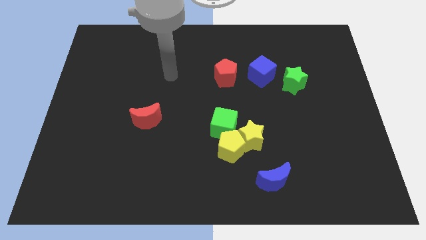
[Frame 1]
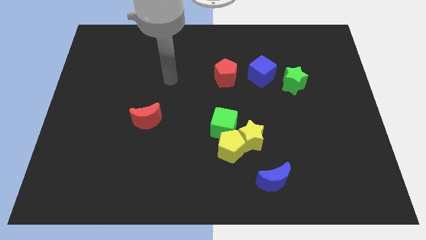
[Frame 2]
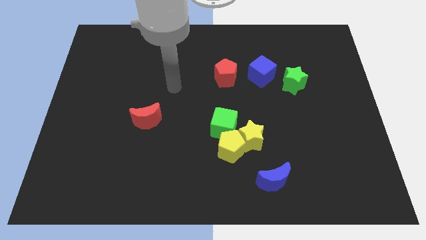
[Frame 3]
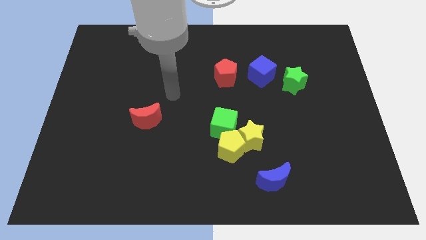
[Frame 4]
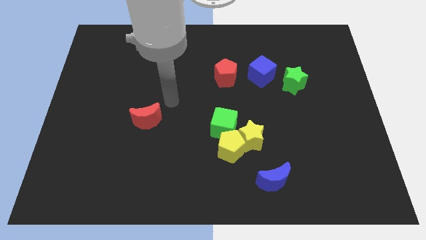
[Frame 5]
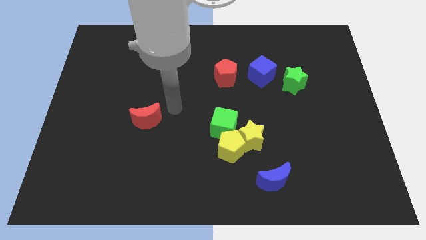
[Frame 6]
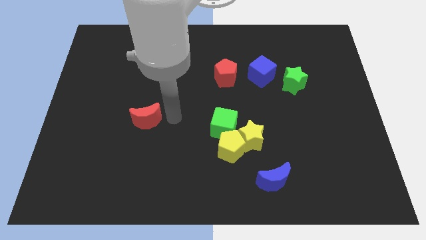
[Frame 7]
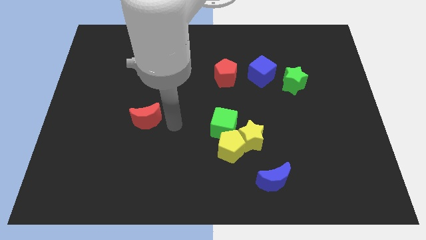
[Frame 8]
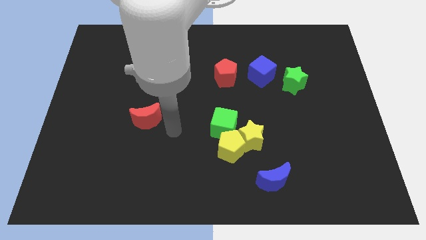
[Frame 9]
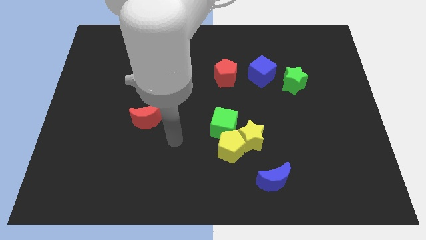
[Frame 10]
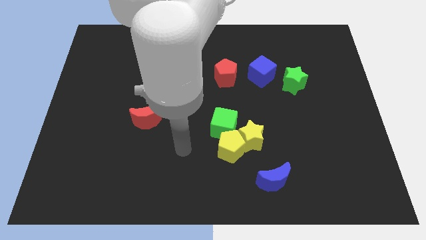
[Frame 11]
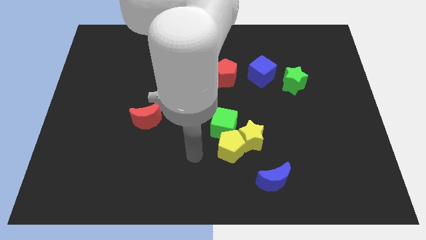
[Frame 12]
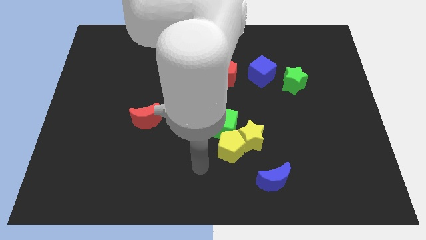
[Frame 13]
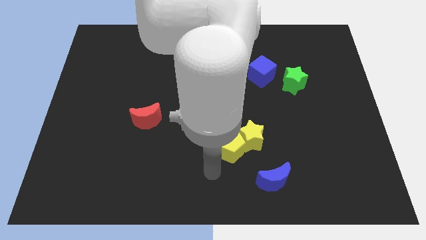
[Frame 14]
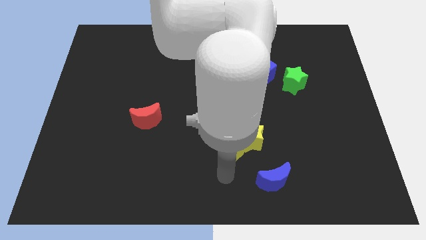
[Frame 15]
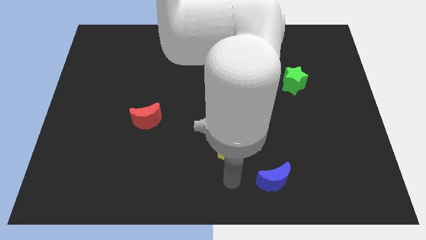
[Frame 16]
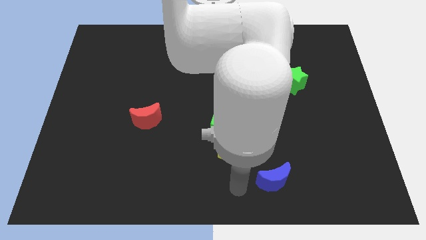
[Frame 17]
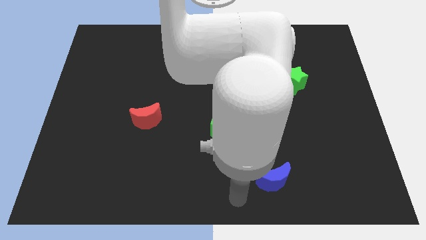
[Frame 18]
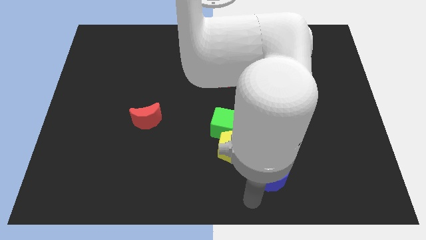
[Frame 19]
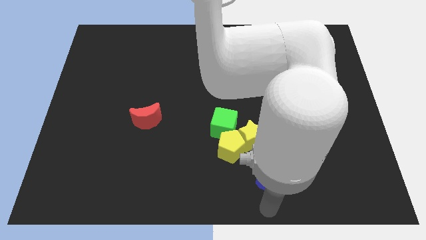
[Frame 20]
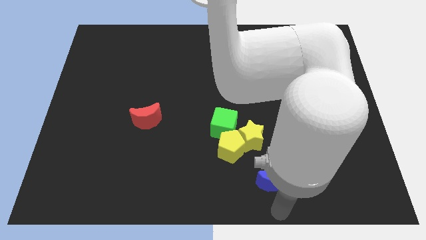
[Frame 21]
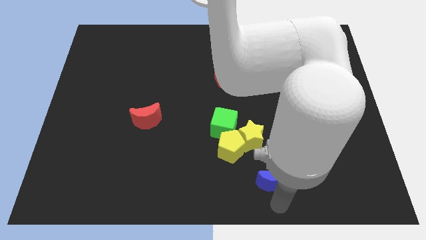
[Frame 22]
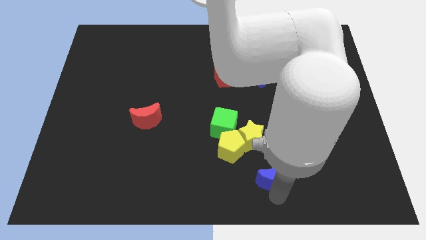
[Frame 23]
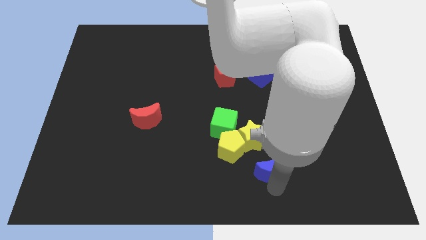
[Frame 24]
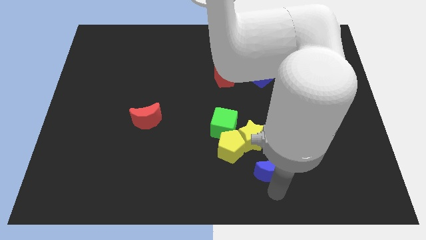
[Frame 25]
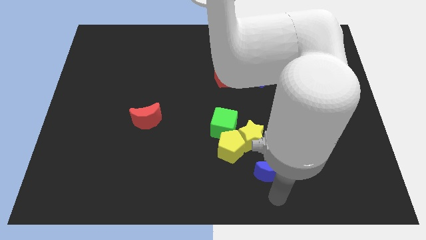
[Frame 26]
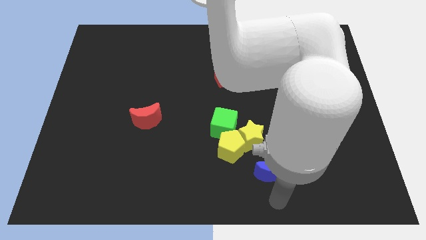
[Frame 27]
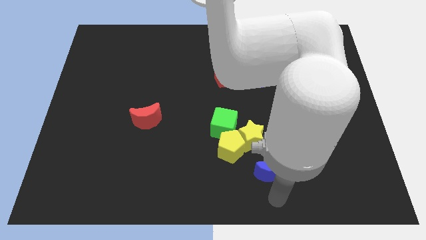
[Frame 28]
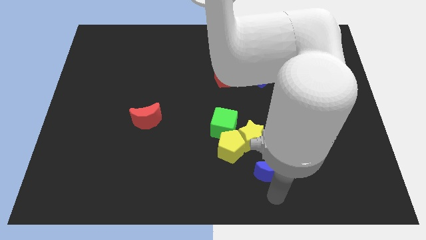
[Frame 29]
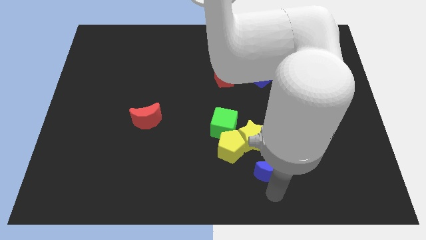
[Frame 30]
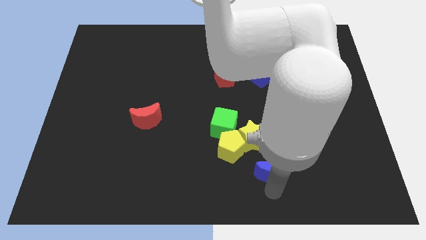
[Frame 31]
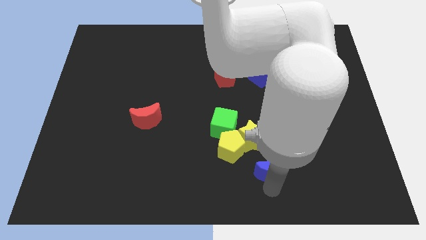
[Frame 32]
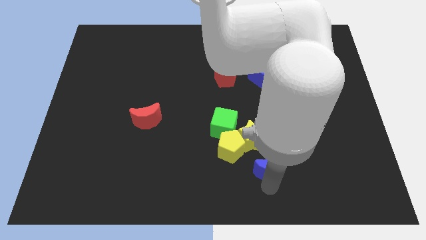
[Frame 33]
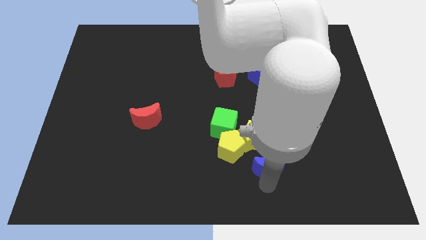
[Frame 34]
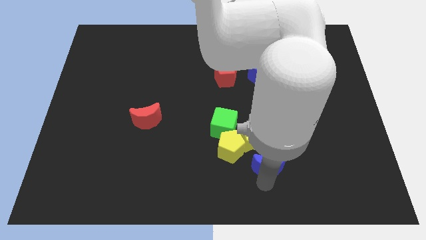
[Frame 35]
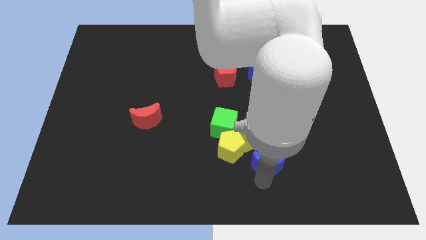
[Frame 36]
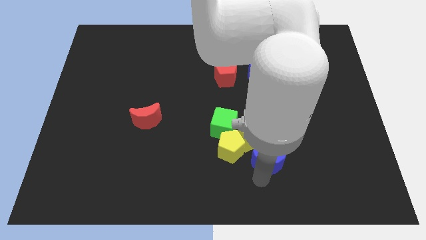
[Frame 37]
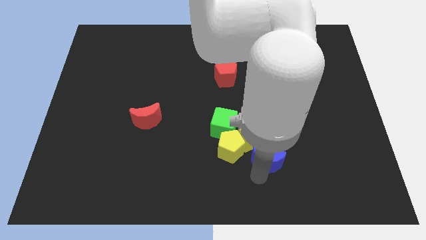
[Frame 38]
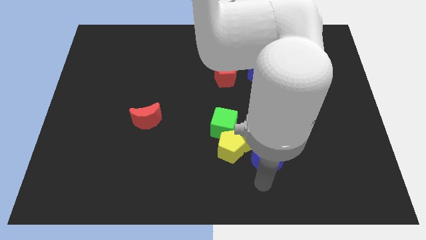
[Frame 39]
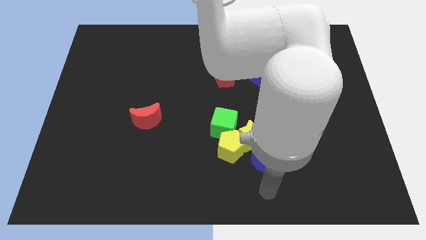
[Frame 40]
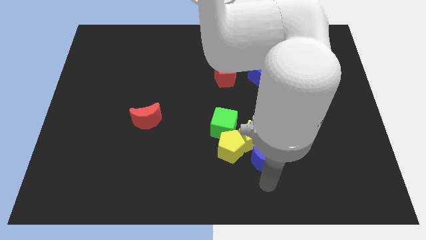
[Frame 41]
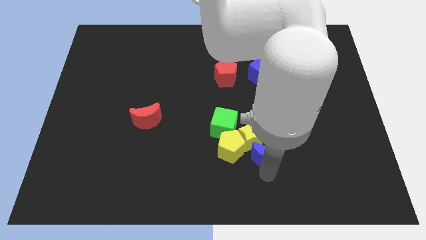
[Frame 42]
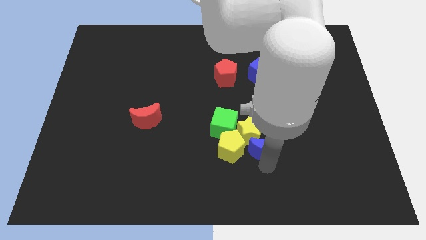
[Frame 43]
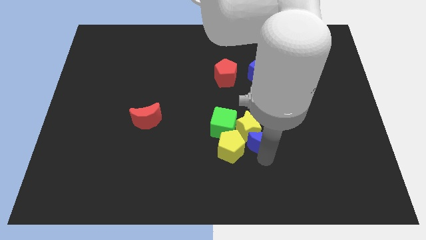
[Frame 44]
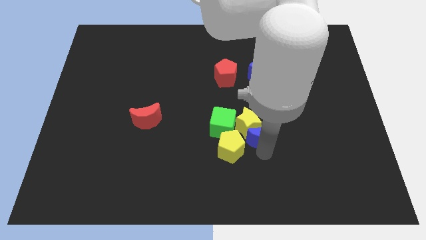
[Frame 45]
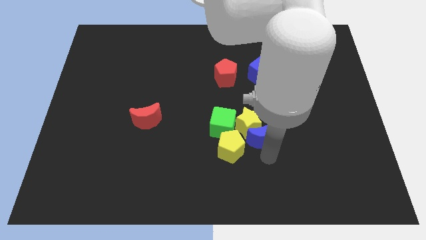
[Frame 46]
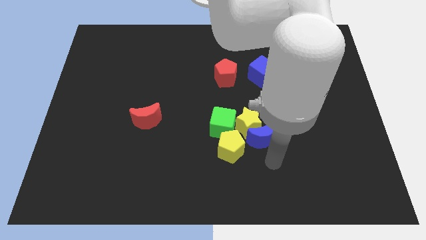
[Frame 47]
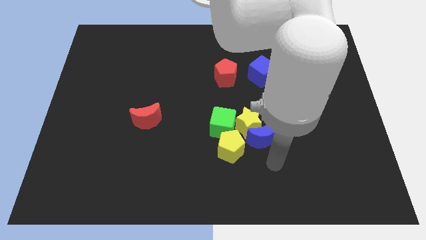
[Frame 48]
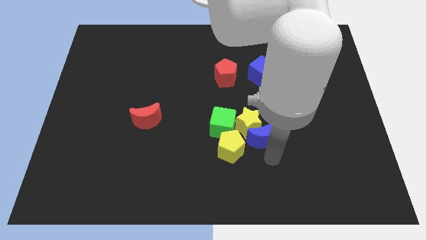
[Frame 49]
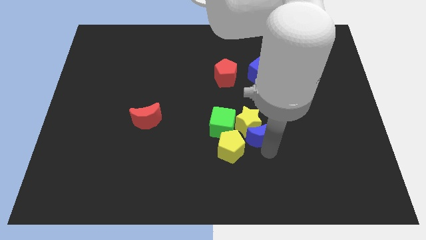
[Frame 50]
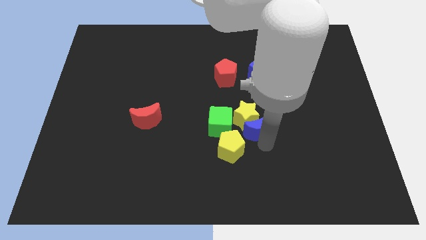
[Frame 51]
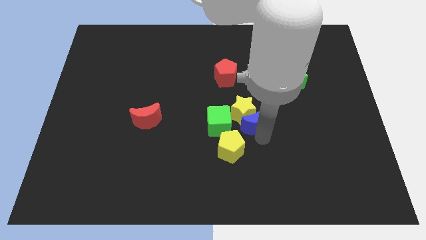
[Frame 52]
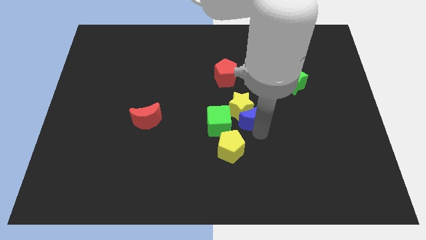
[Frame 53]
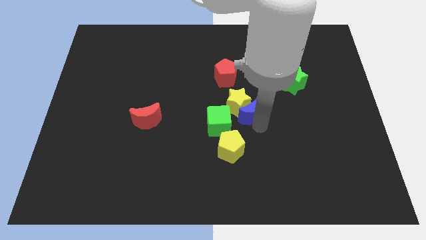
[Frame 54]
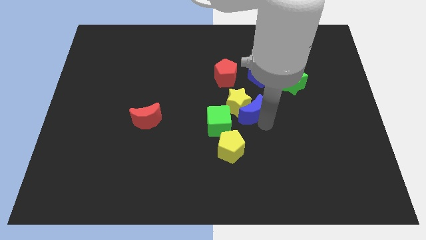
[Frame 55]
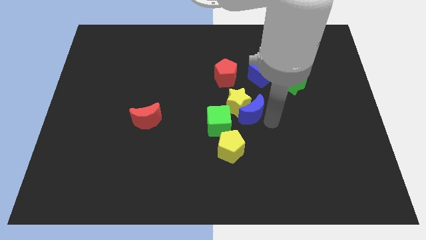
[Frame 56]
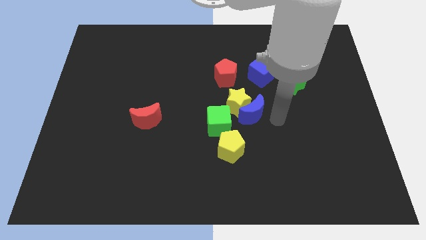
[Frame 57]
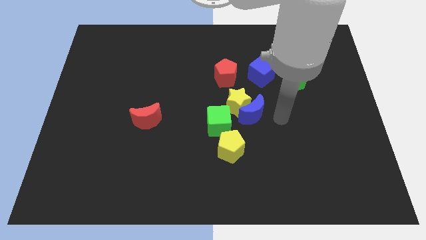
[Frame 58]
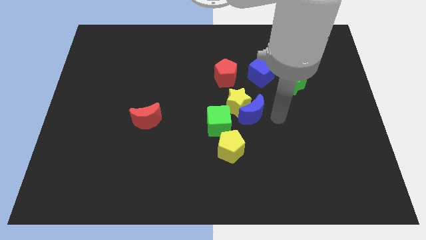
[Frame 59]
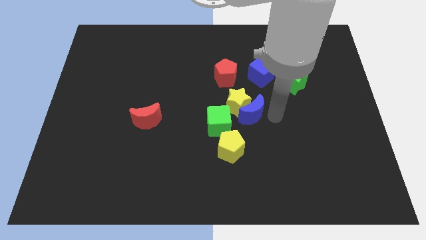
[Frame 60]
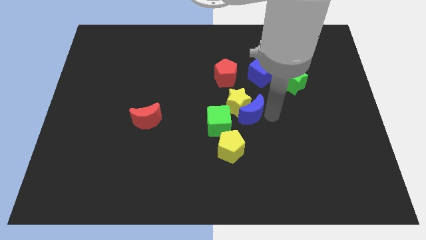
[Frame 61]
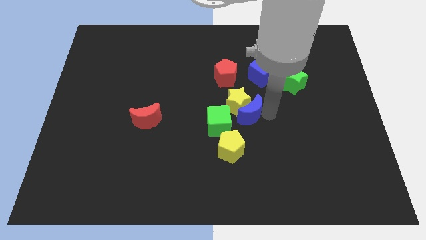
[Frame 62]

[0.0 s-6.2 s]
push the blue moon to the top side of the yellow pentagon

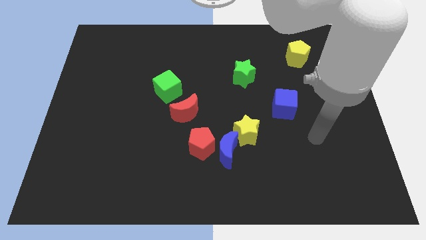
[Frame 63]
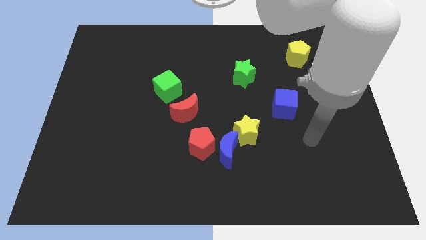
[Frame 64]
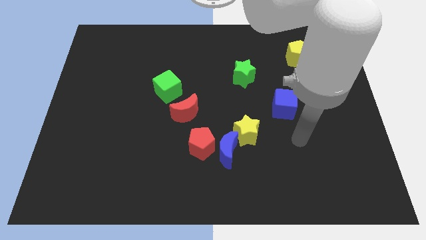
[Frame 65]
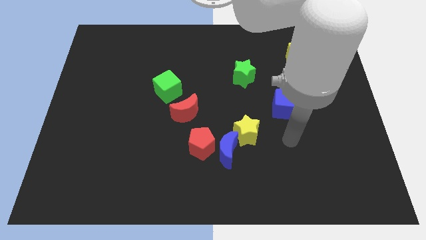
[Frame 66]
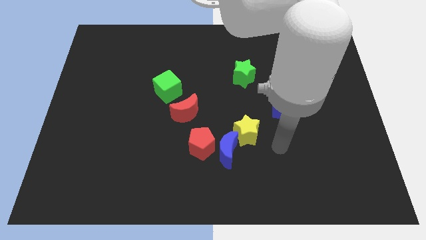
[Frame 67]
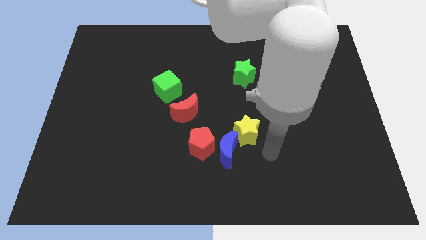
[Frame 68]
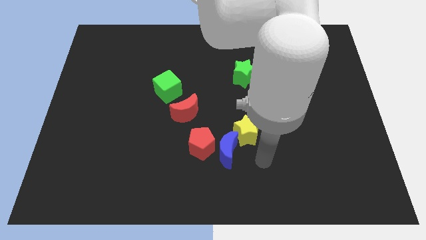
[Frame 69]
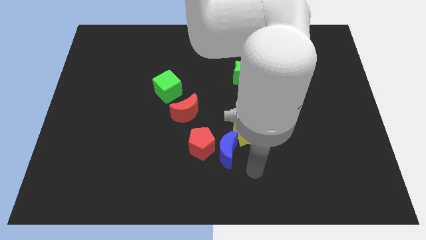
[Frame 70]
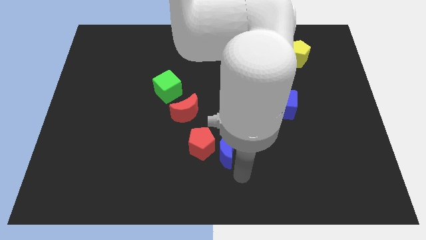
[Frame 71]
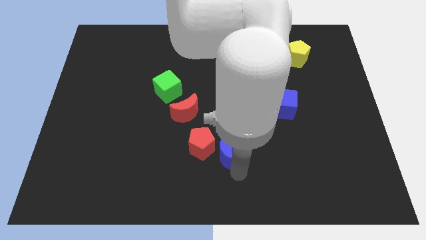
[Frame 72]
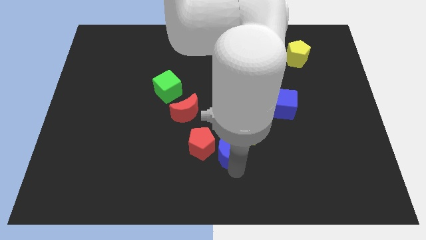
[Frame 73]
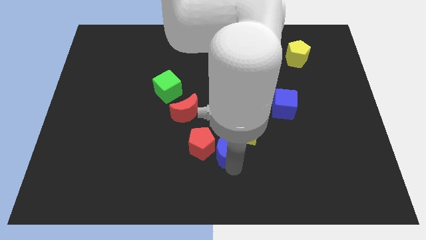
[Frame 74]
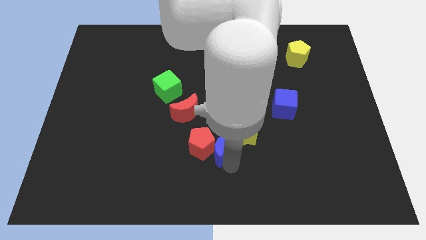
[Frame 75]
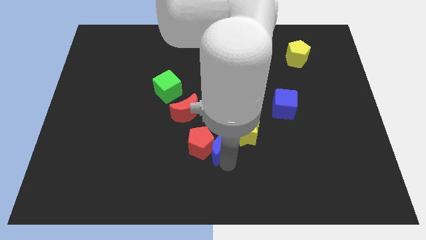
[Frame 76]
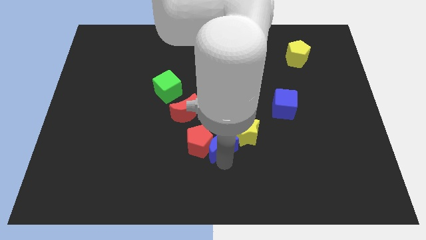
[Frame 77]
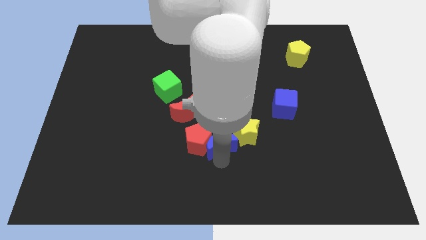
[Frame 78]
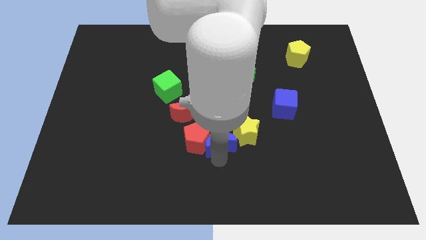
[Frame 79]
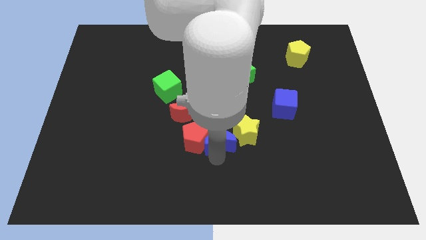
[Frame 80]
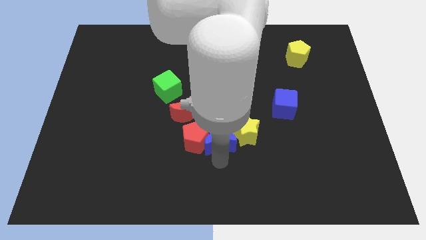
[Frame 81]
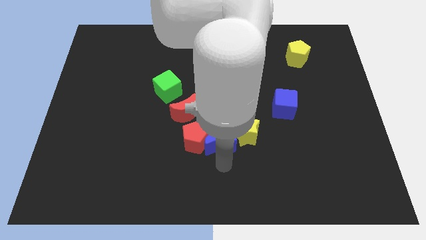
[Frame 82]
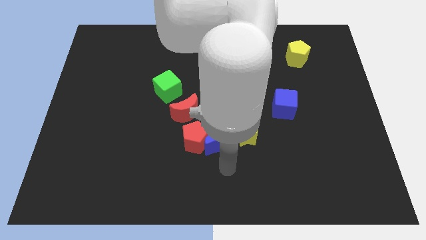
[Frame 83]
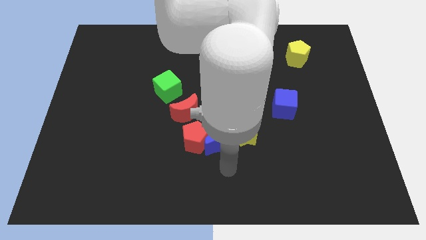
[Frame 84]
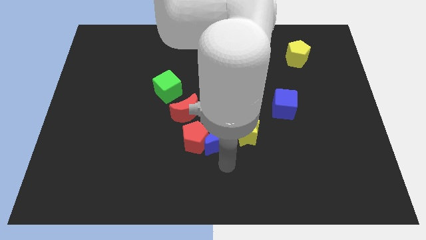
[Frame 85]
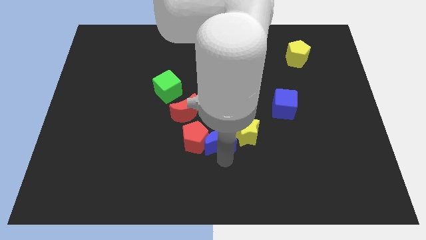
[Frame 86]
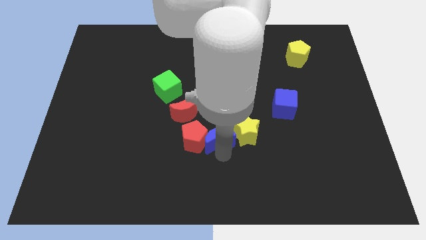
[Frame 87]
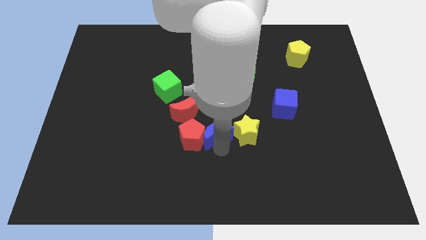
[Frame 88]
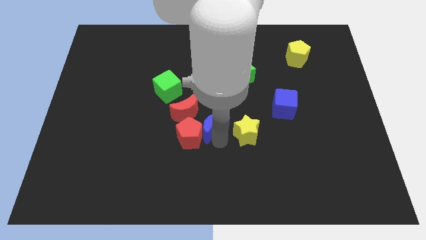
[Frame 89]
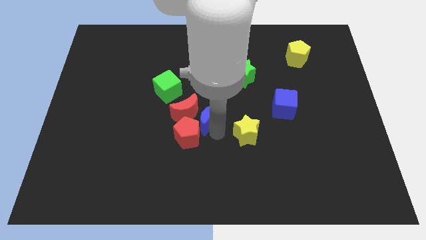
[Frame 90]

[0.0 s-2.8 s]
push the blue moon to the top of the red pentagon
